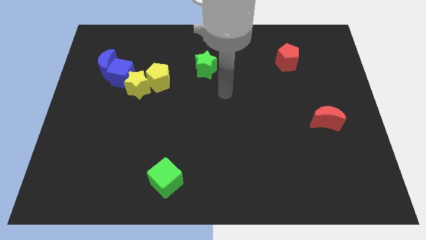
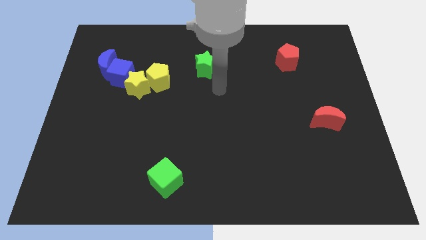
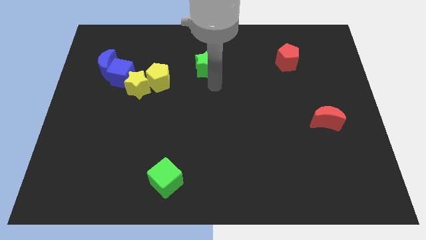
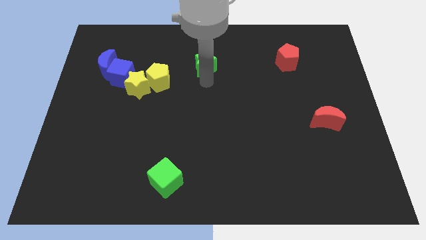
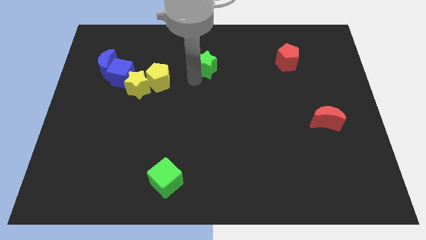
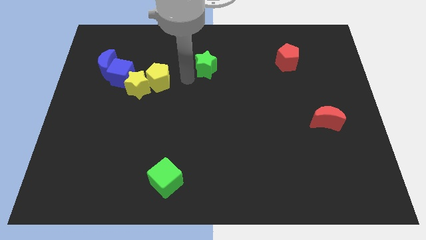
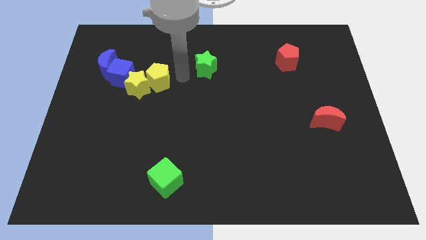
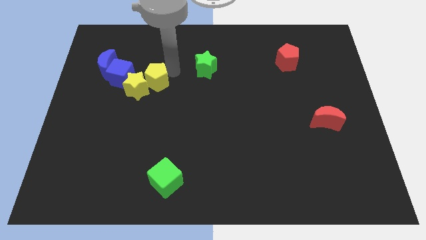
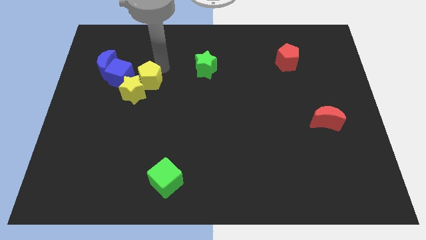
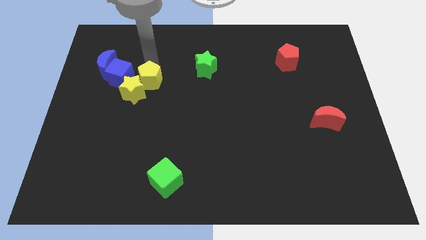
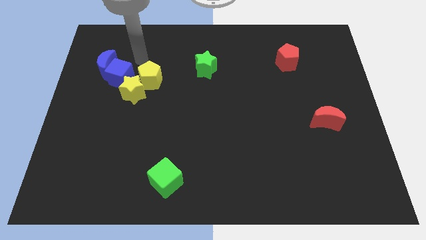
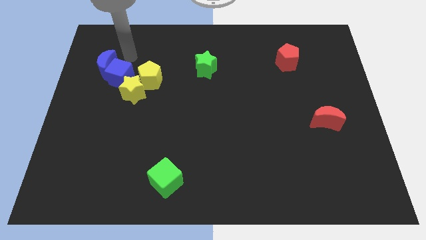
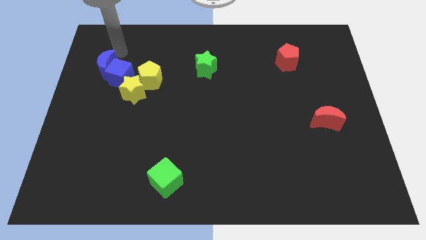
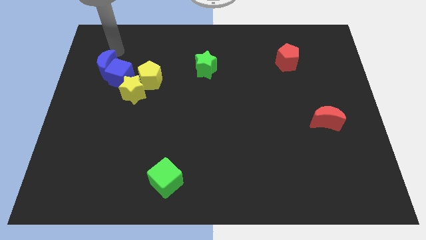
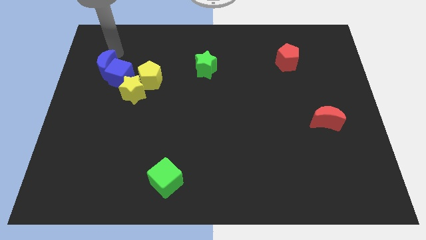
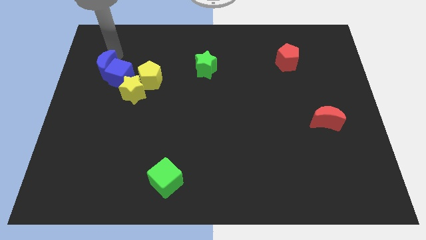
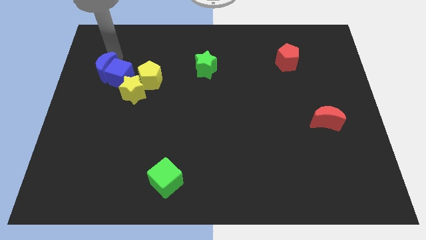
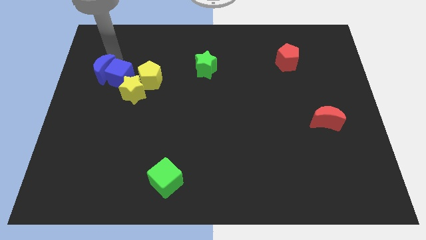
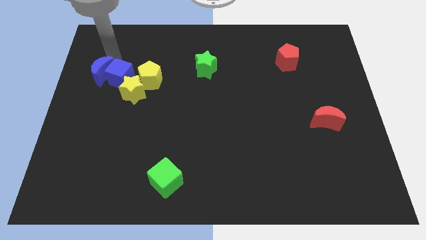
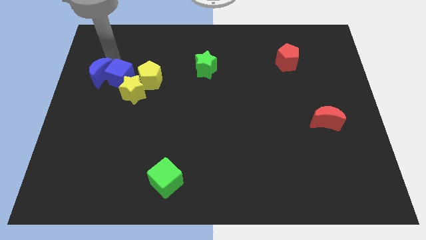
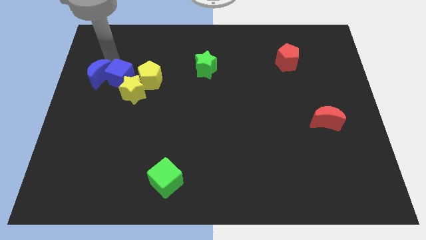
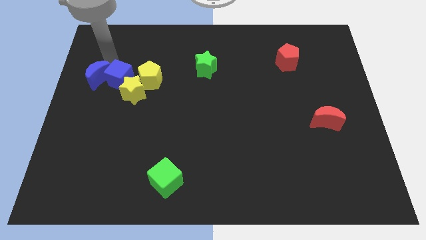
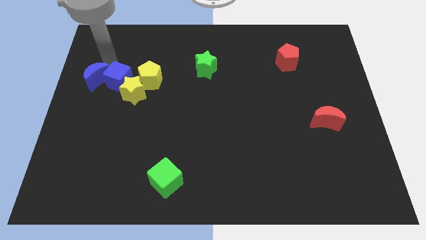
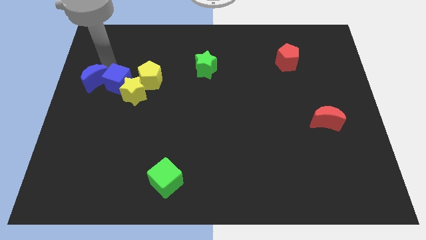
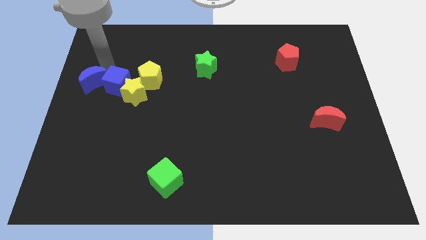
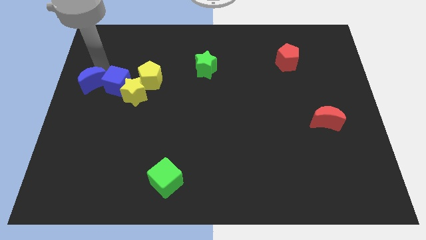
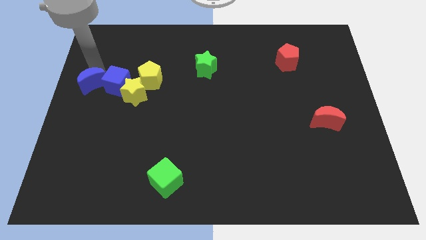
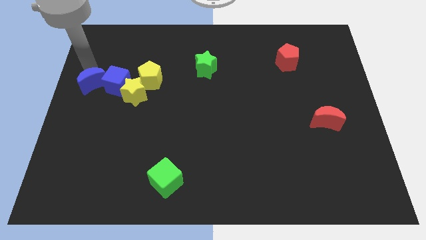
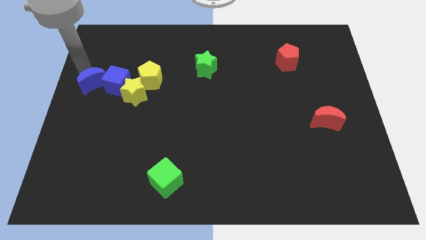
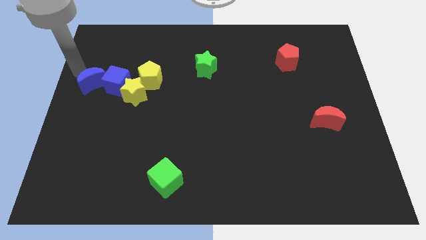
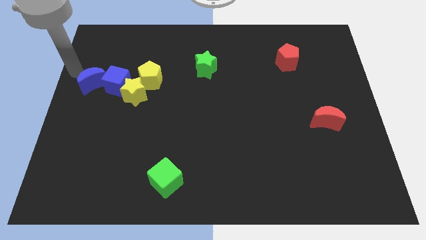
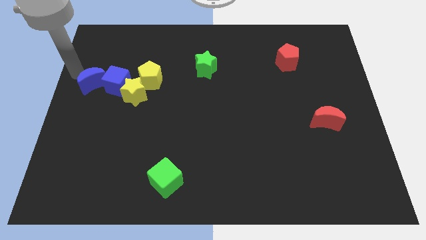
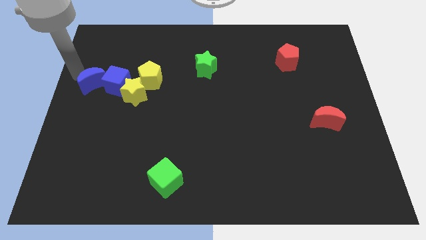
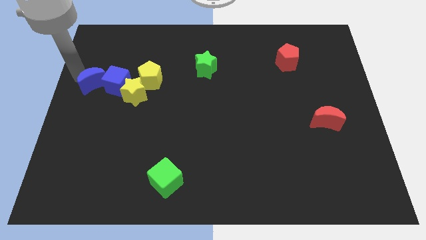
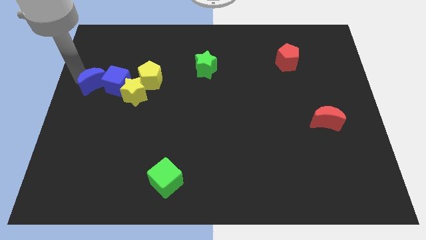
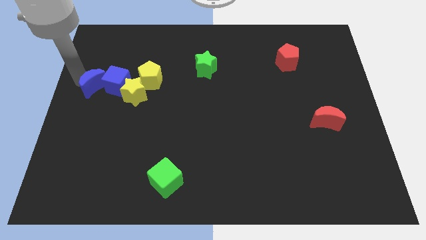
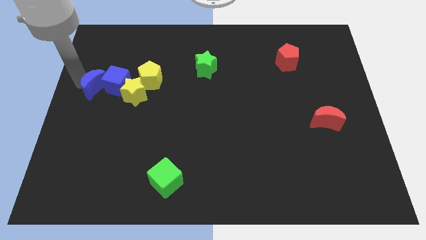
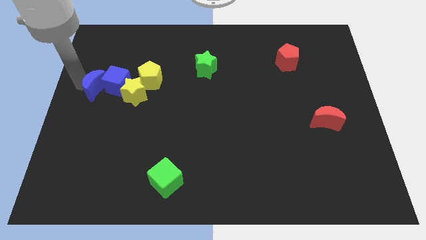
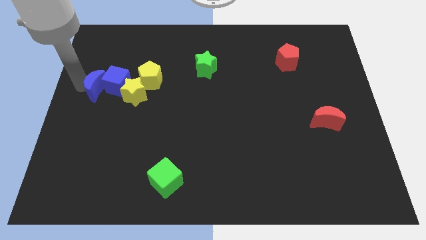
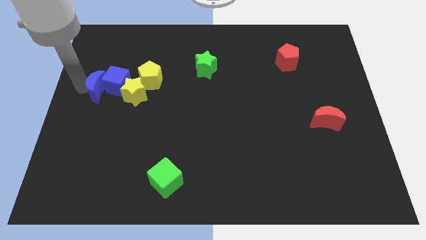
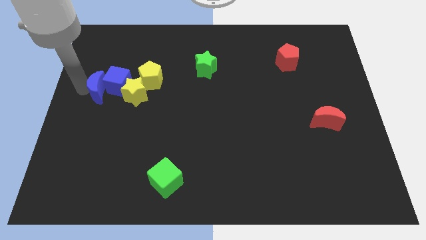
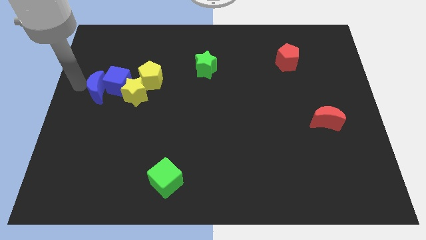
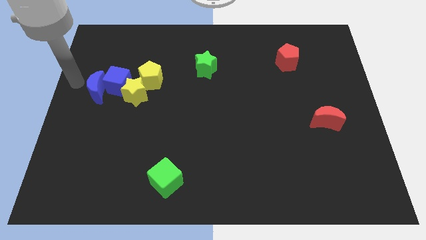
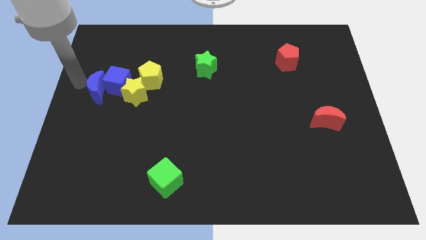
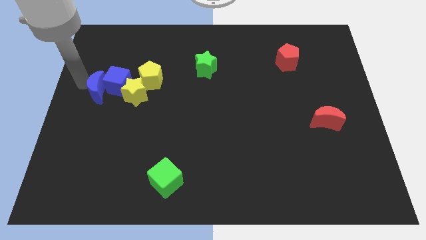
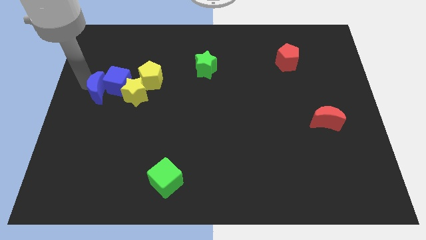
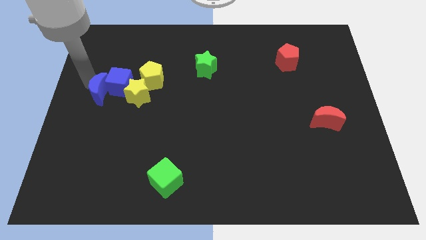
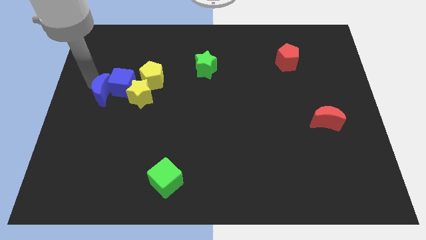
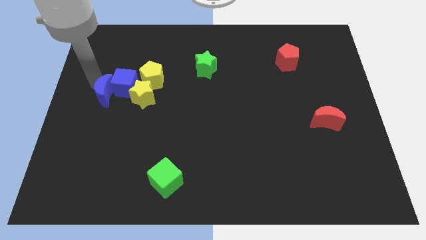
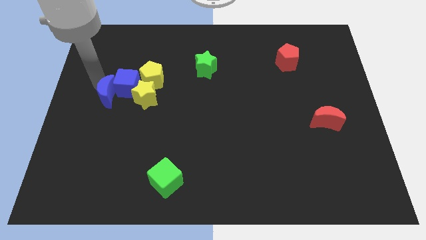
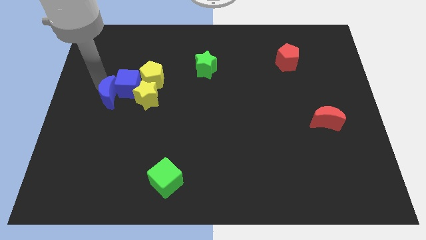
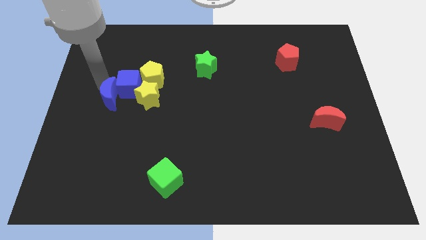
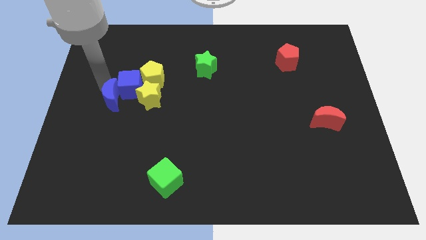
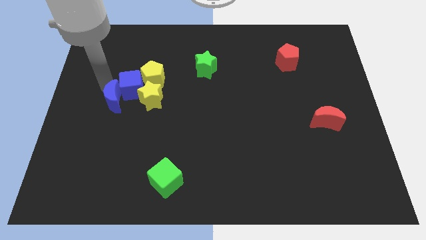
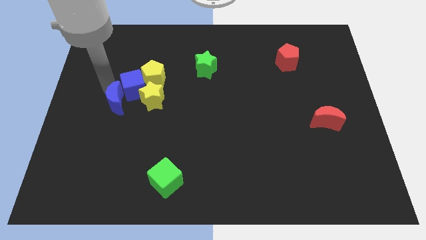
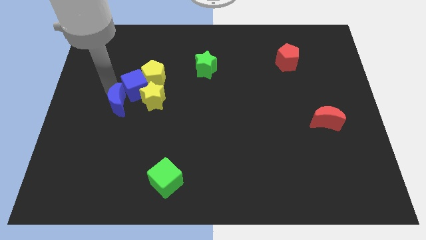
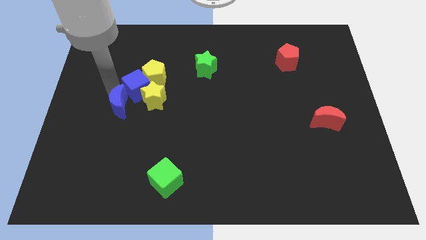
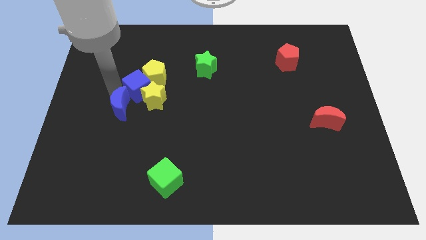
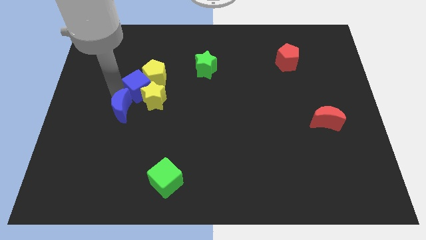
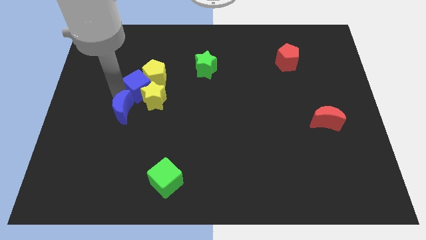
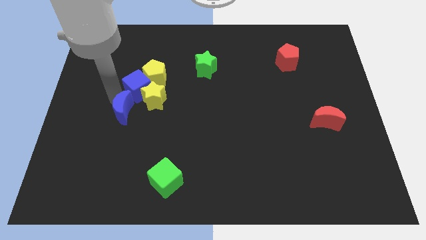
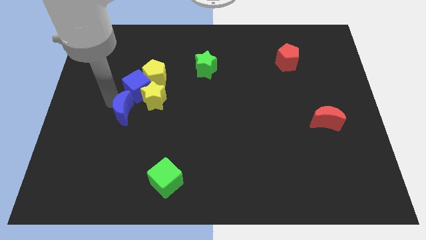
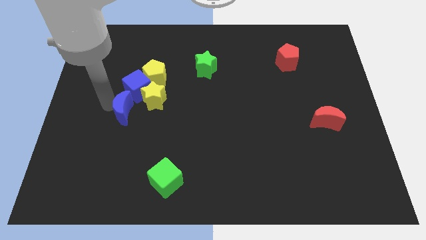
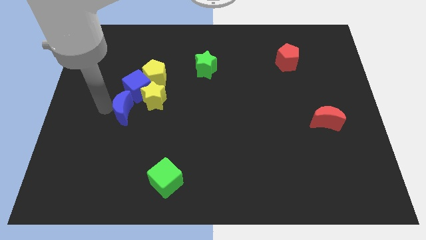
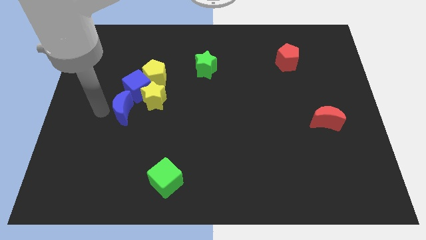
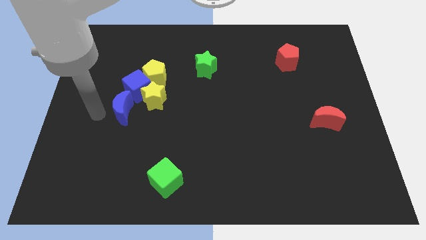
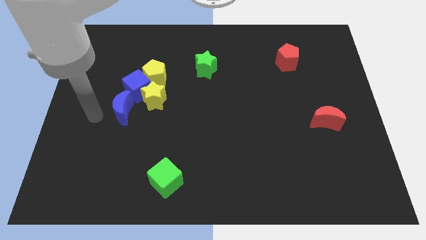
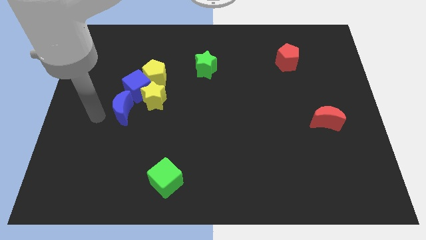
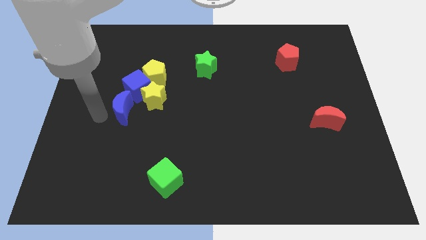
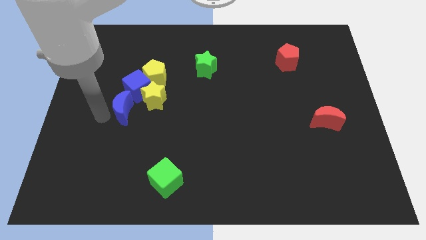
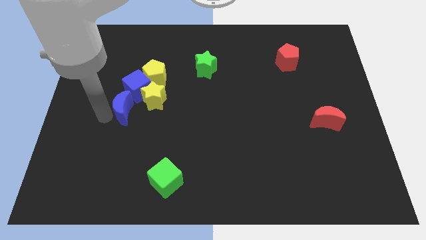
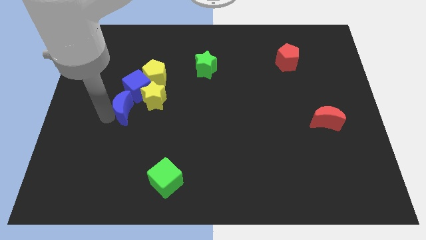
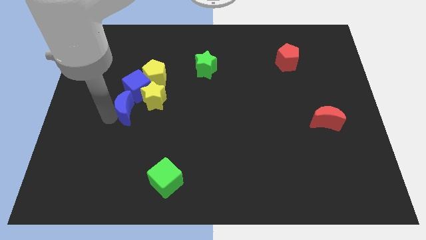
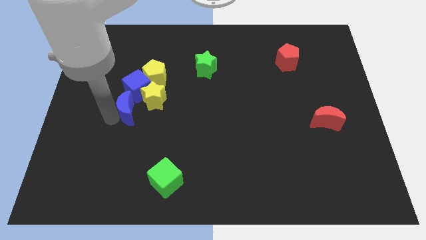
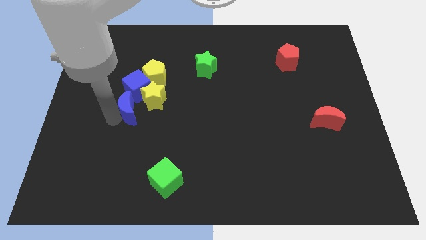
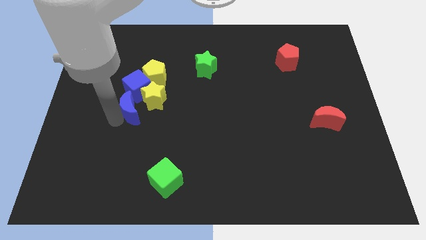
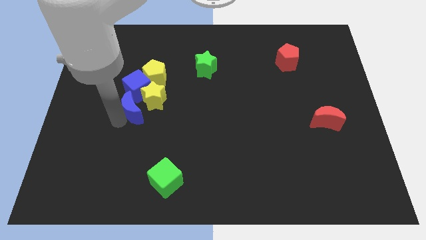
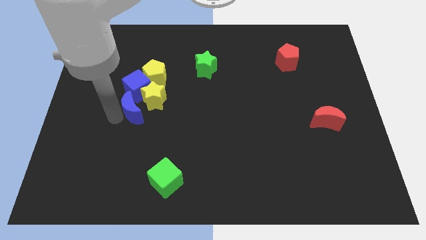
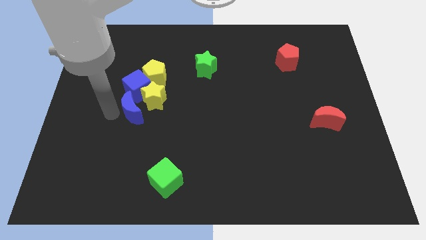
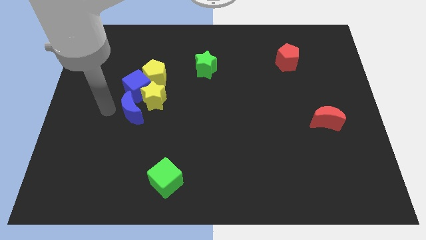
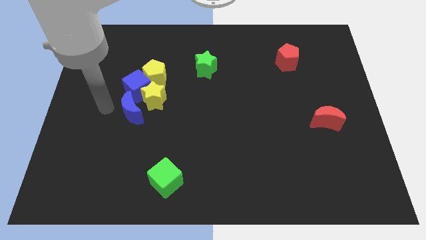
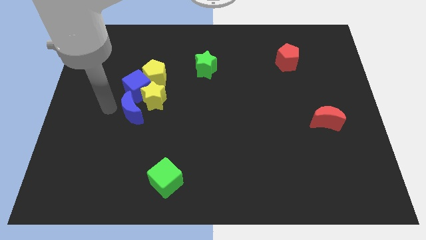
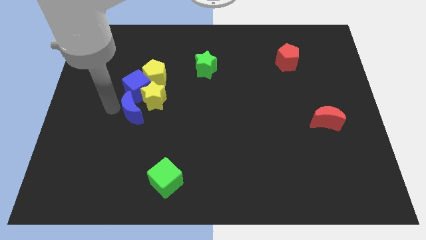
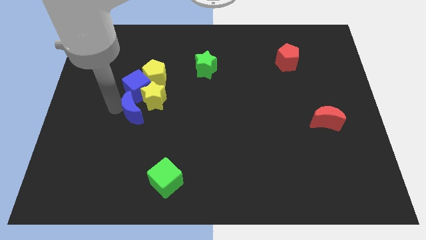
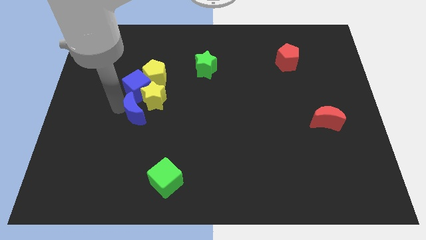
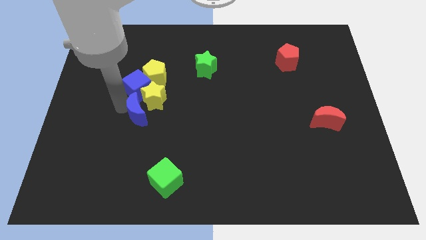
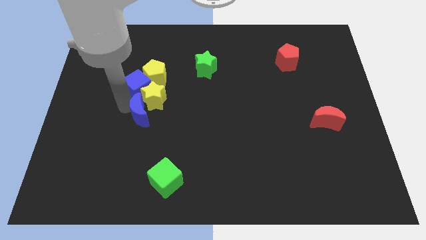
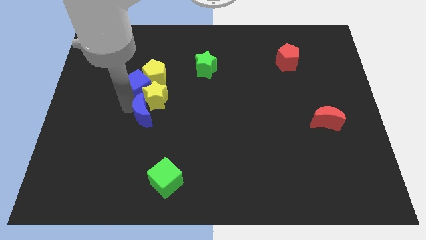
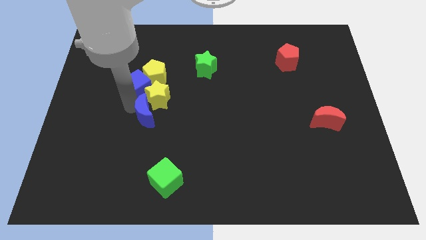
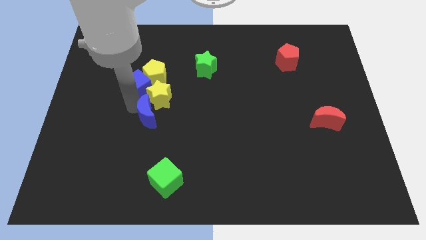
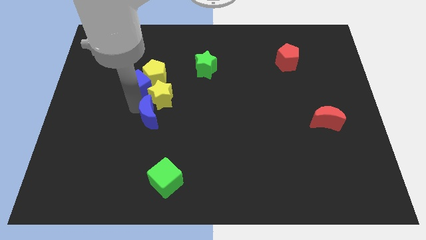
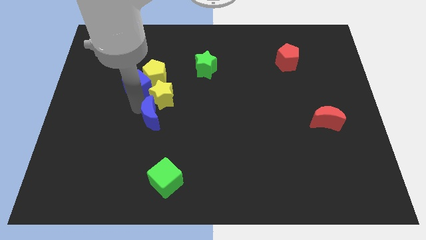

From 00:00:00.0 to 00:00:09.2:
slide the blue moon down and then to the right

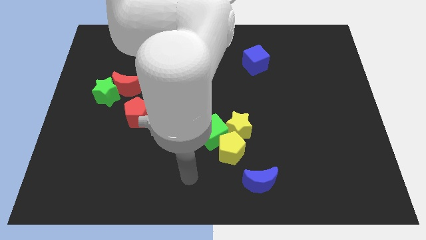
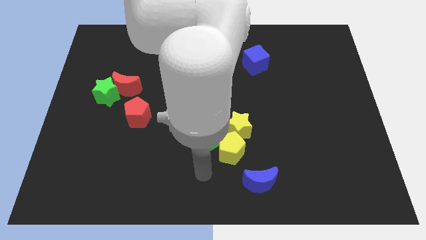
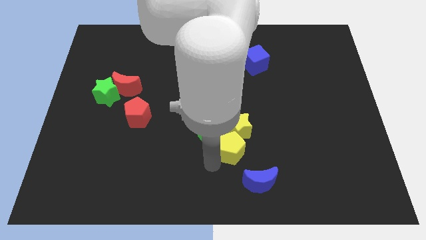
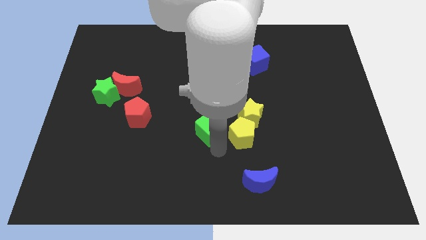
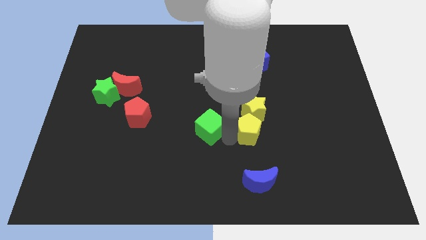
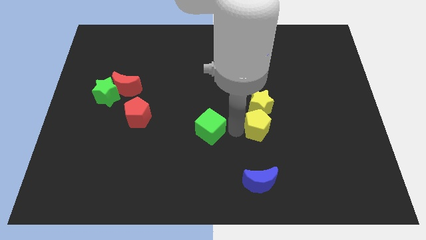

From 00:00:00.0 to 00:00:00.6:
slide the yellow star up and to the right somewhat
